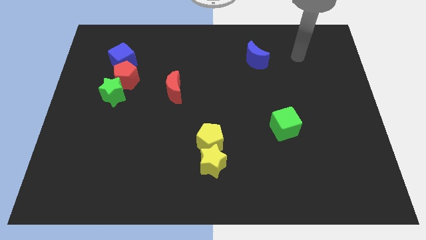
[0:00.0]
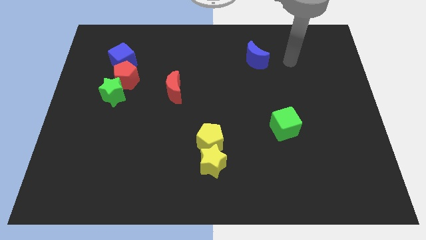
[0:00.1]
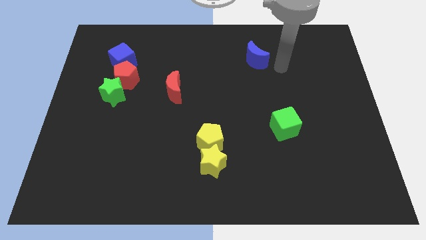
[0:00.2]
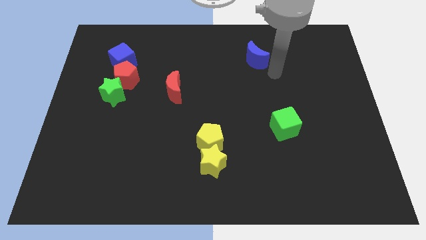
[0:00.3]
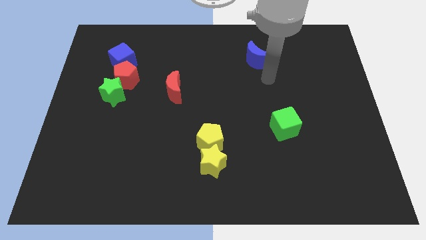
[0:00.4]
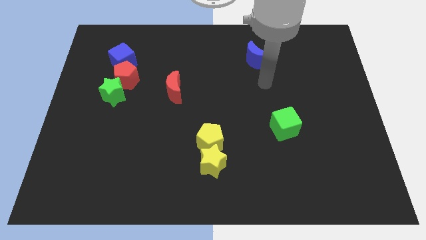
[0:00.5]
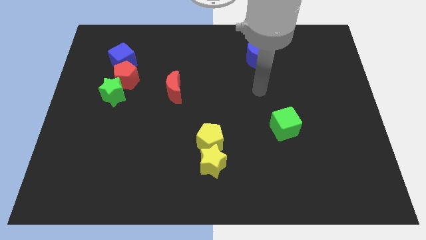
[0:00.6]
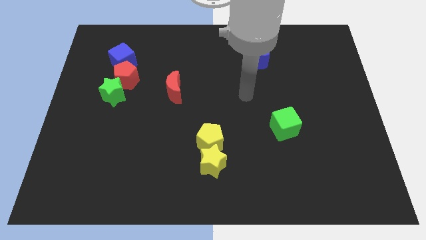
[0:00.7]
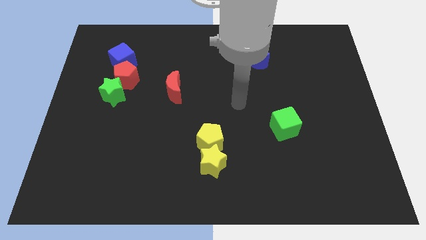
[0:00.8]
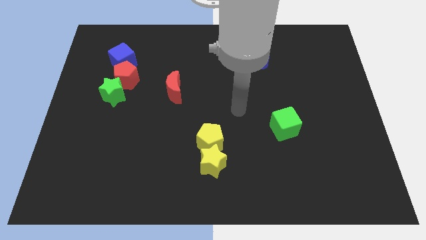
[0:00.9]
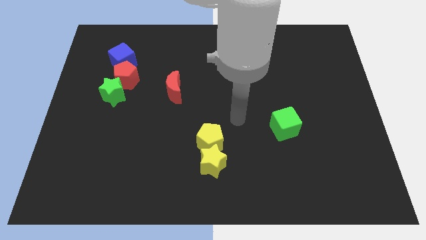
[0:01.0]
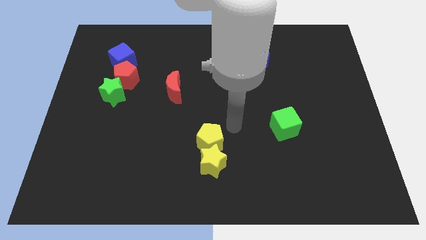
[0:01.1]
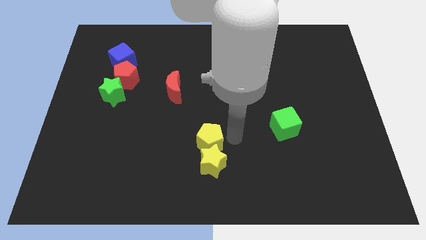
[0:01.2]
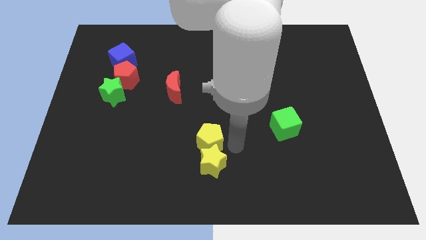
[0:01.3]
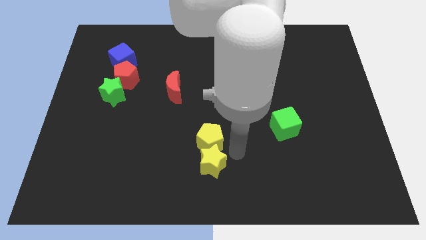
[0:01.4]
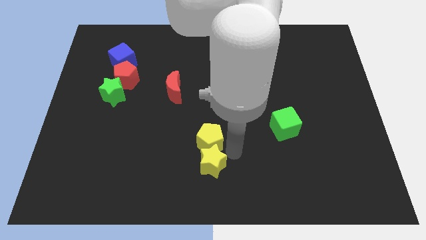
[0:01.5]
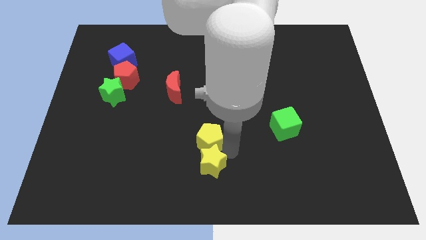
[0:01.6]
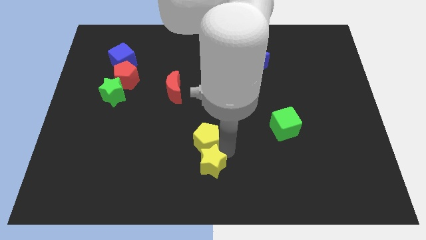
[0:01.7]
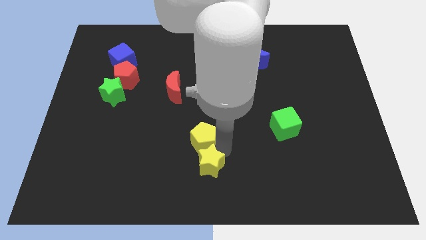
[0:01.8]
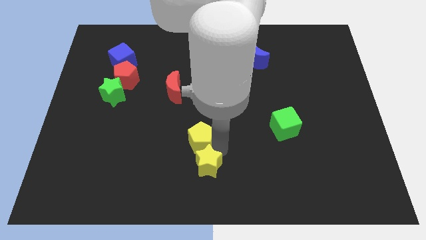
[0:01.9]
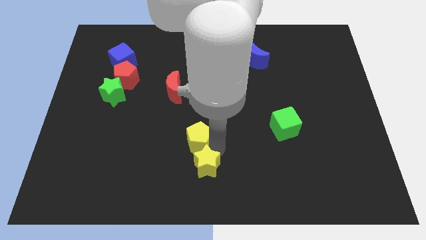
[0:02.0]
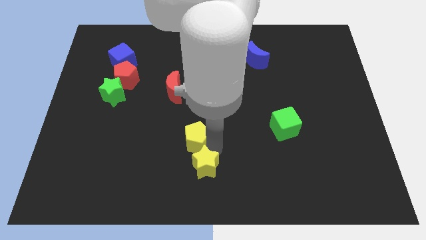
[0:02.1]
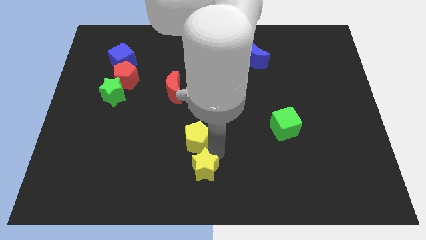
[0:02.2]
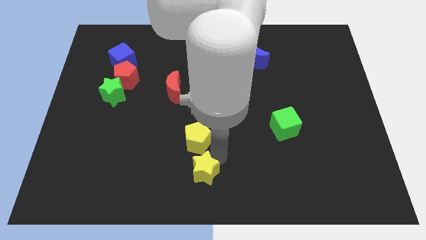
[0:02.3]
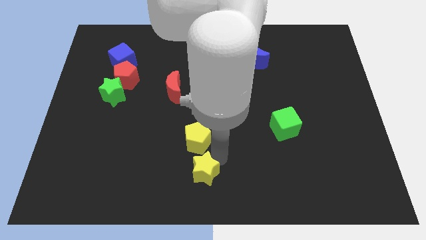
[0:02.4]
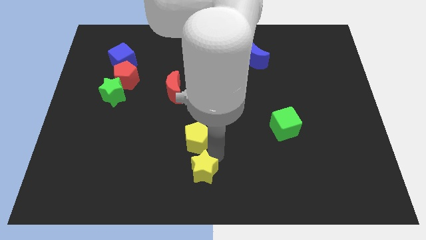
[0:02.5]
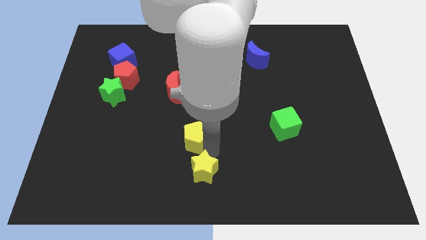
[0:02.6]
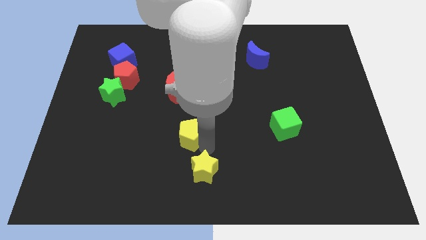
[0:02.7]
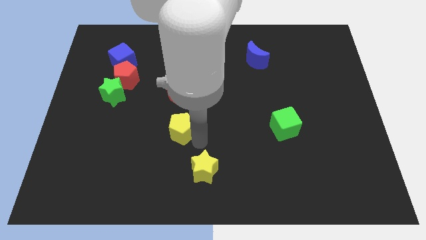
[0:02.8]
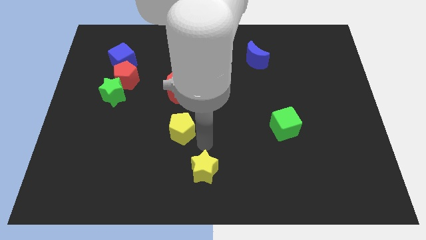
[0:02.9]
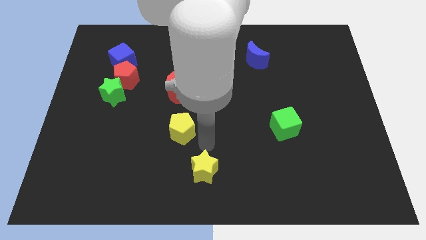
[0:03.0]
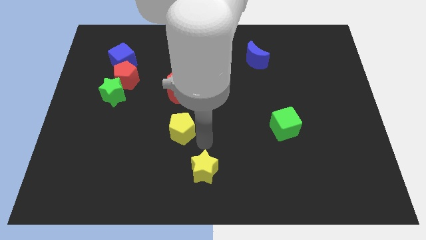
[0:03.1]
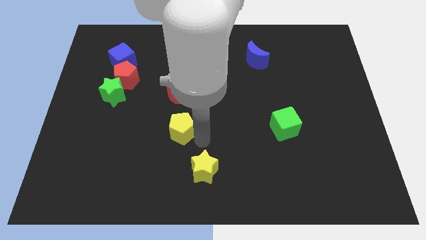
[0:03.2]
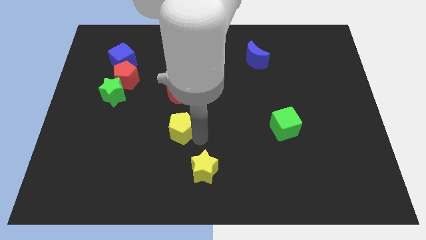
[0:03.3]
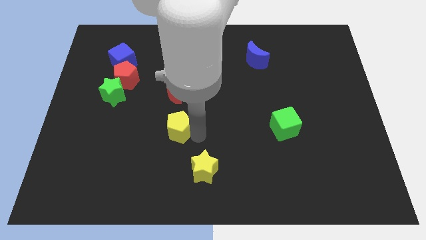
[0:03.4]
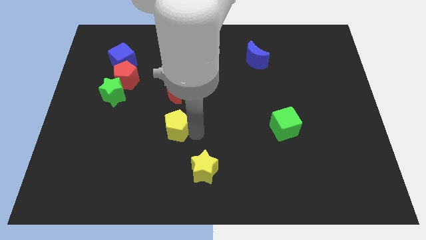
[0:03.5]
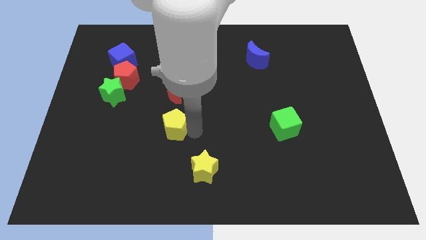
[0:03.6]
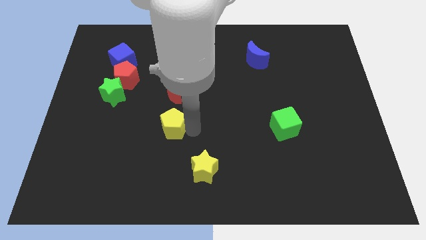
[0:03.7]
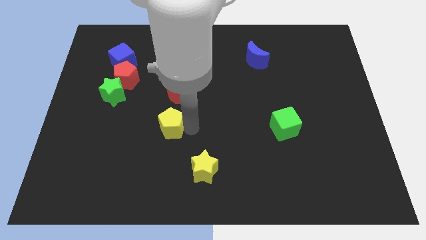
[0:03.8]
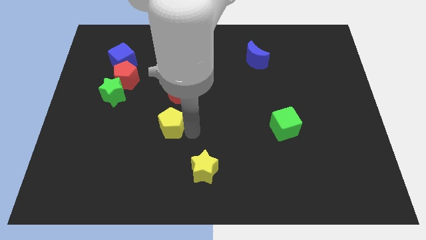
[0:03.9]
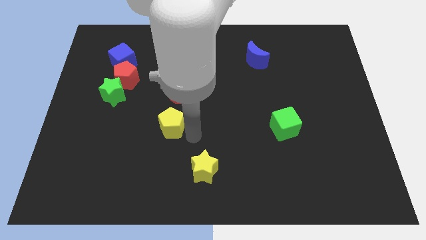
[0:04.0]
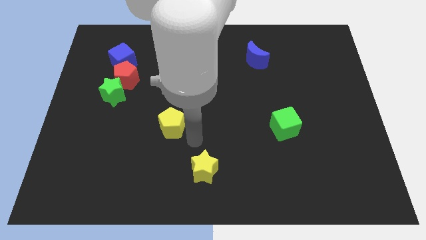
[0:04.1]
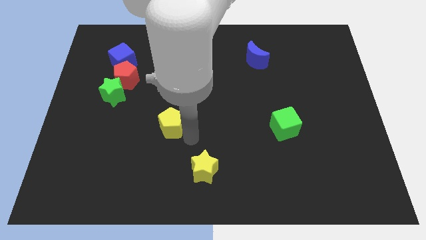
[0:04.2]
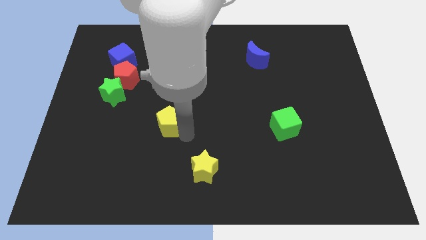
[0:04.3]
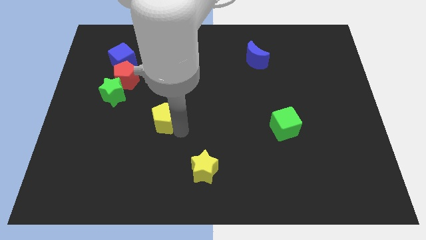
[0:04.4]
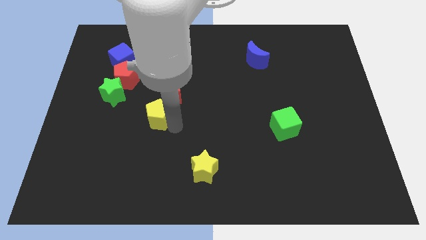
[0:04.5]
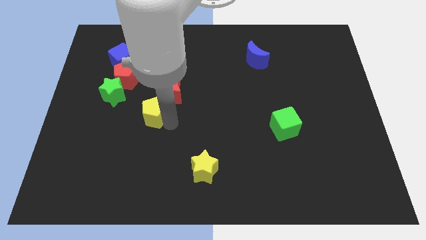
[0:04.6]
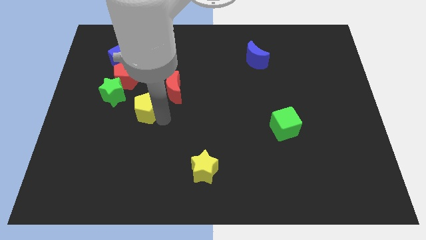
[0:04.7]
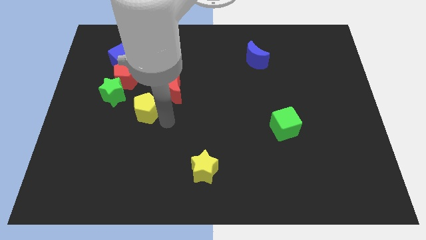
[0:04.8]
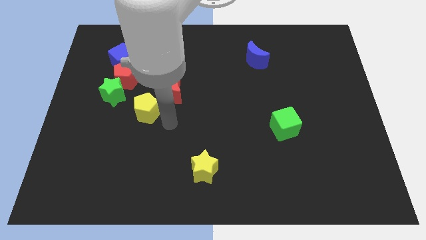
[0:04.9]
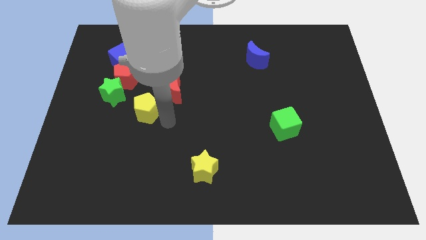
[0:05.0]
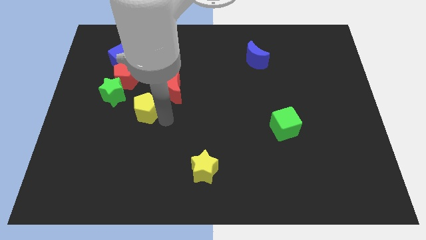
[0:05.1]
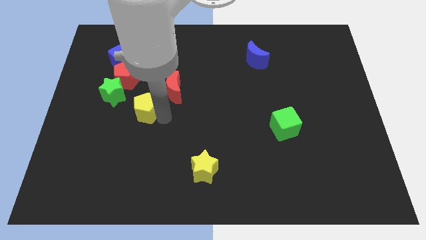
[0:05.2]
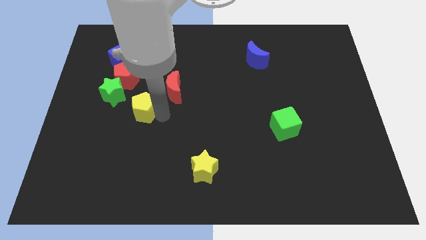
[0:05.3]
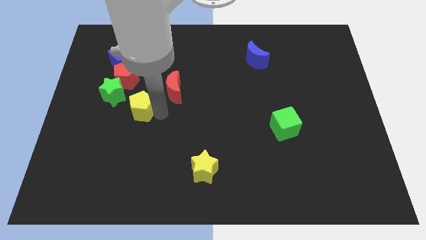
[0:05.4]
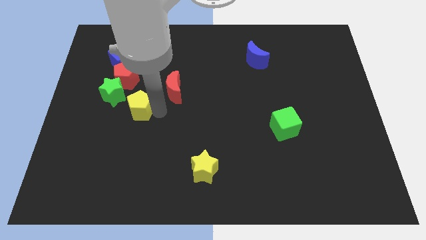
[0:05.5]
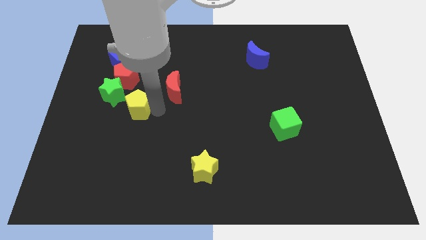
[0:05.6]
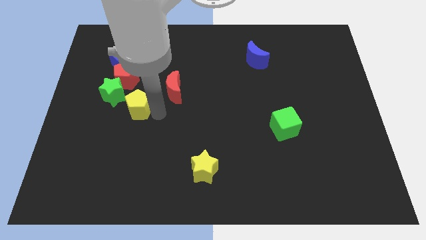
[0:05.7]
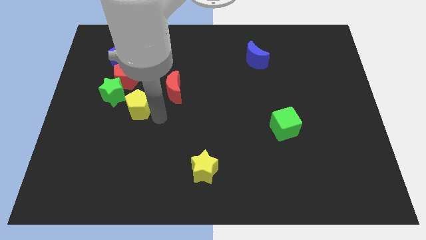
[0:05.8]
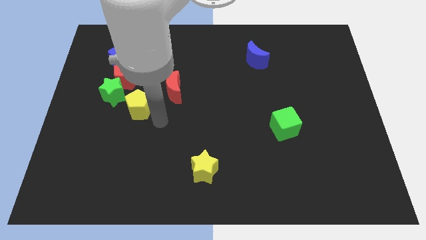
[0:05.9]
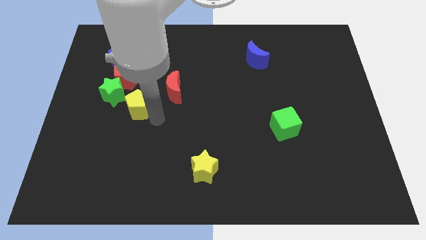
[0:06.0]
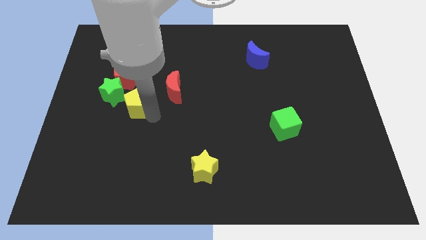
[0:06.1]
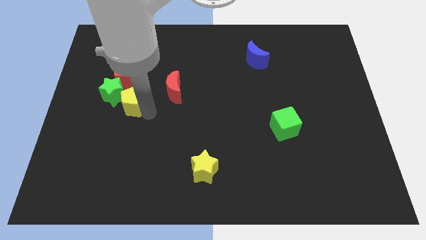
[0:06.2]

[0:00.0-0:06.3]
move the yellow pentagon to the green star

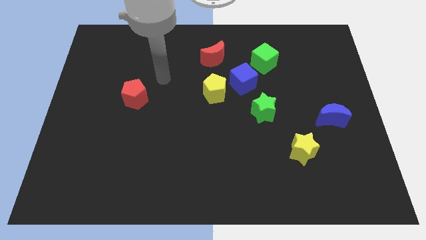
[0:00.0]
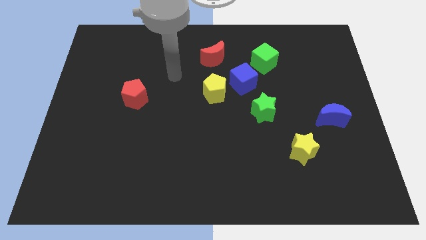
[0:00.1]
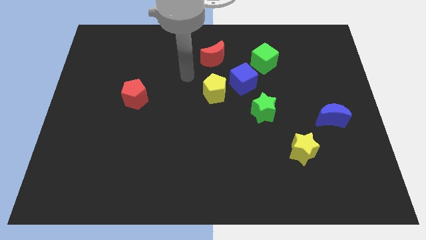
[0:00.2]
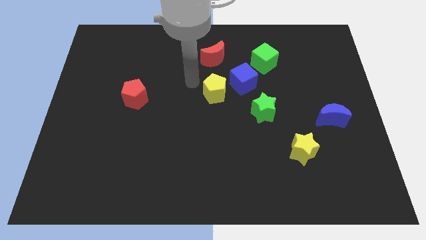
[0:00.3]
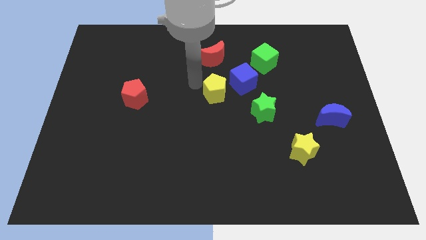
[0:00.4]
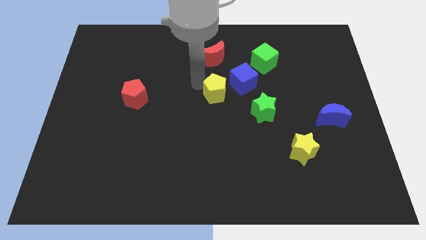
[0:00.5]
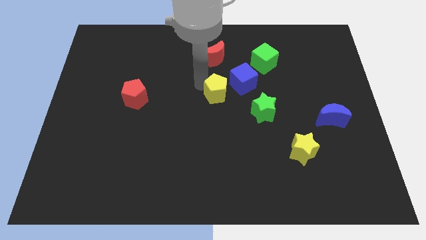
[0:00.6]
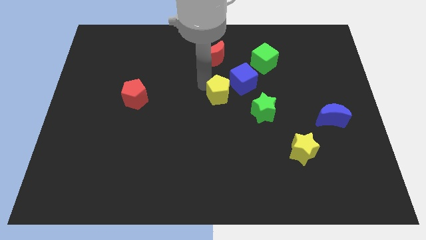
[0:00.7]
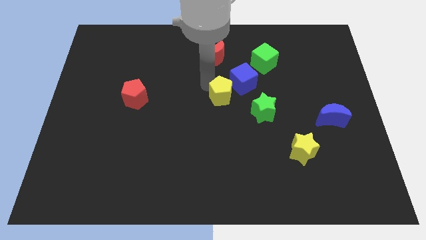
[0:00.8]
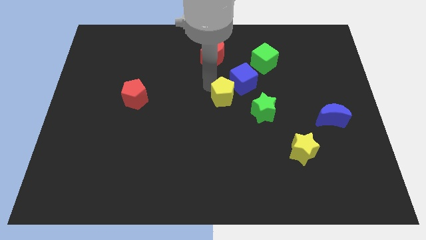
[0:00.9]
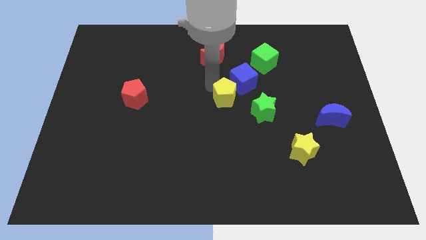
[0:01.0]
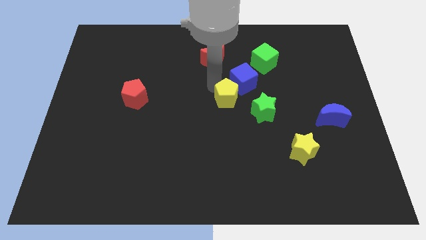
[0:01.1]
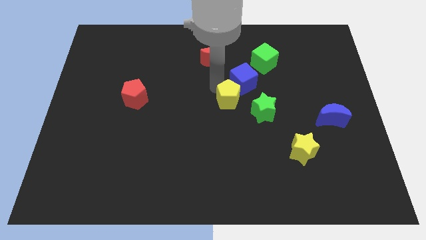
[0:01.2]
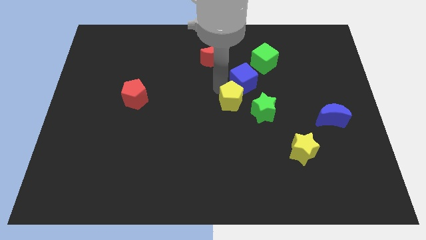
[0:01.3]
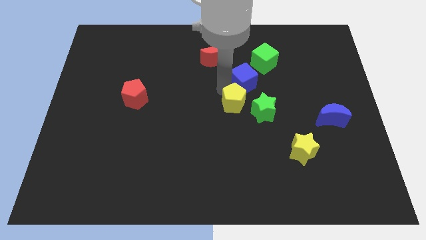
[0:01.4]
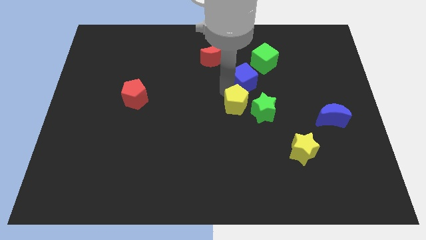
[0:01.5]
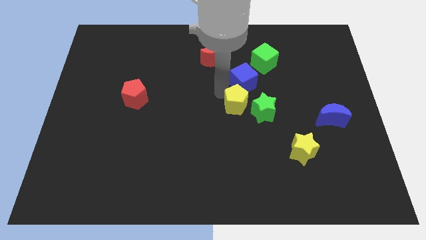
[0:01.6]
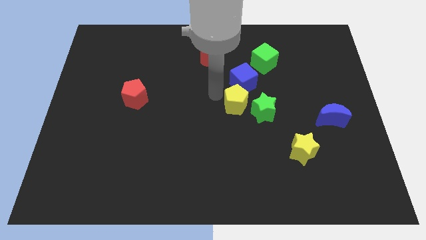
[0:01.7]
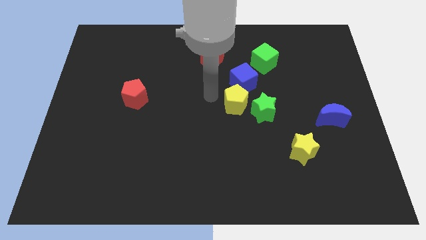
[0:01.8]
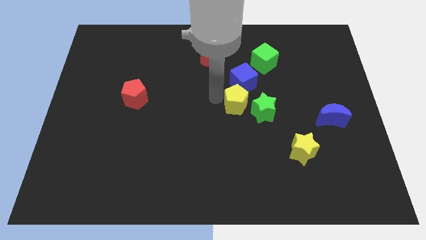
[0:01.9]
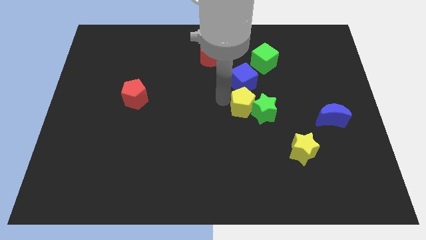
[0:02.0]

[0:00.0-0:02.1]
push the yellow pentagon next to the green star
